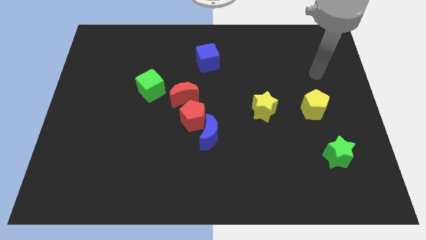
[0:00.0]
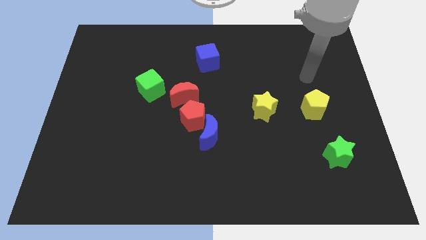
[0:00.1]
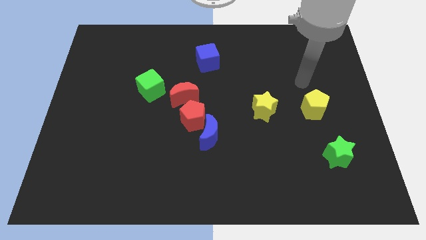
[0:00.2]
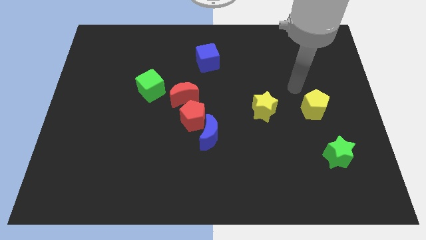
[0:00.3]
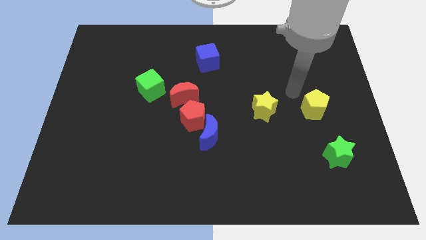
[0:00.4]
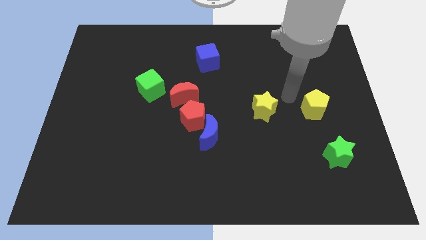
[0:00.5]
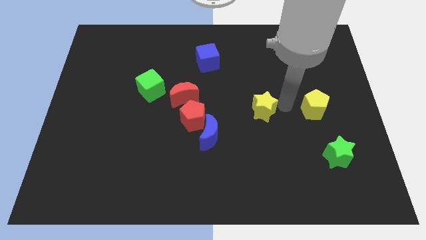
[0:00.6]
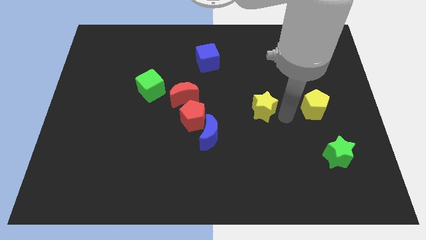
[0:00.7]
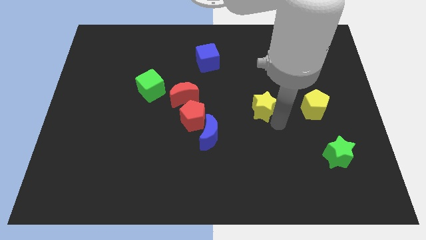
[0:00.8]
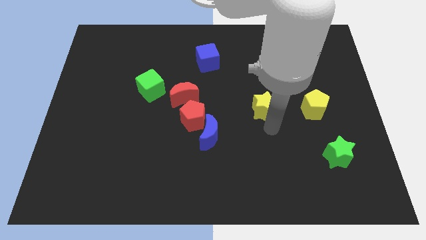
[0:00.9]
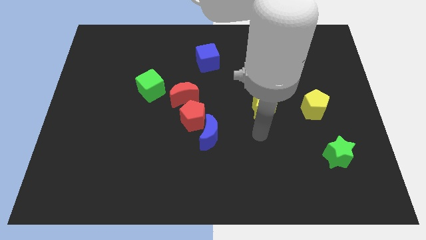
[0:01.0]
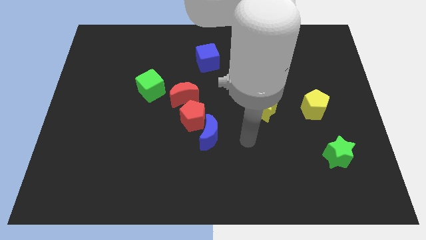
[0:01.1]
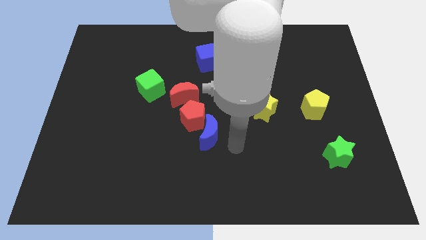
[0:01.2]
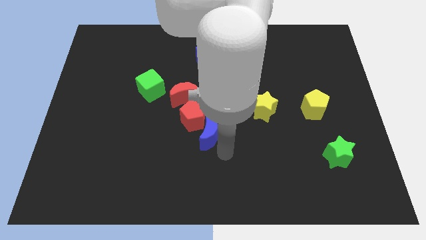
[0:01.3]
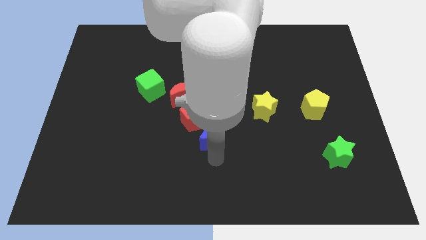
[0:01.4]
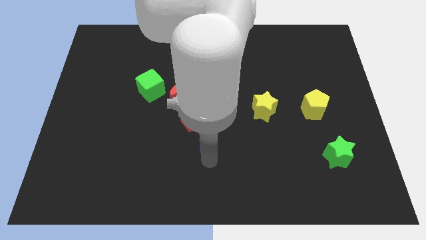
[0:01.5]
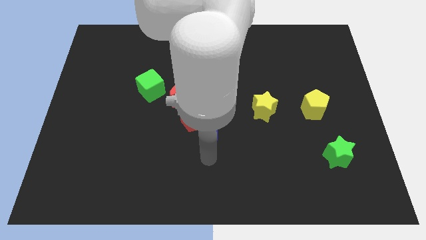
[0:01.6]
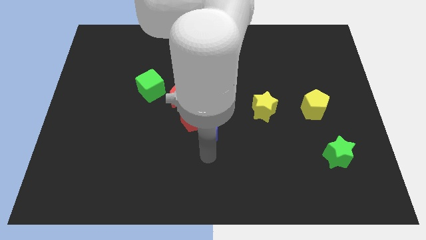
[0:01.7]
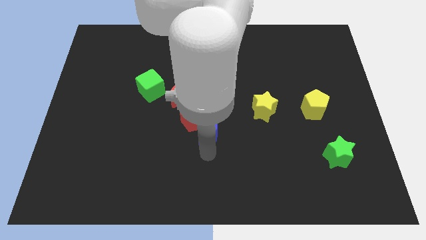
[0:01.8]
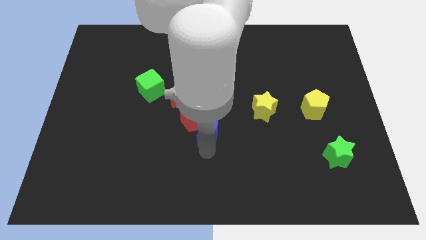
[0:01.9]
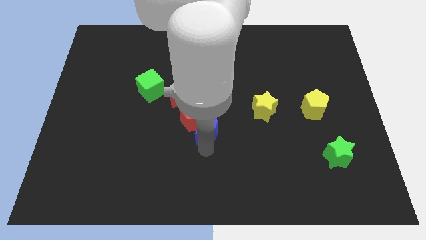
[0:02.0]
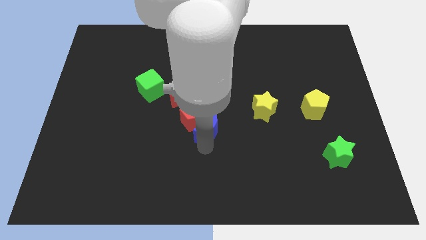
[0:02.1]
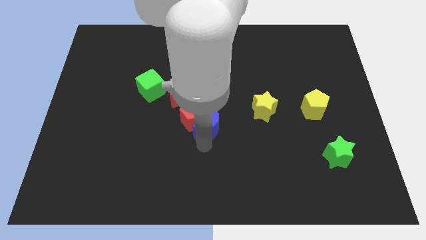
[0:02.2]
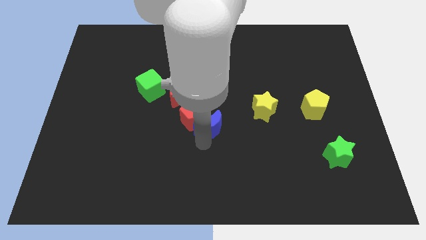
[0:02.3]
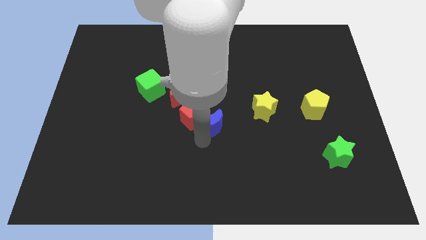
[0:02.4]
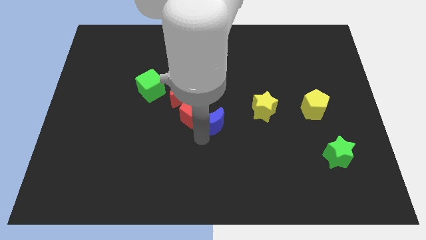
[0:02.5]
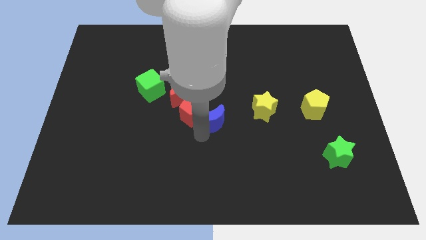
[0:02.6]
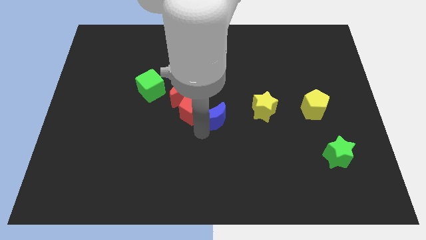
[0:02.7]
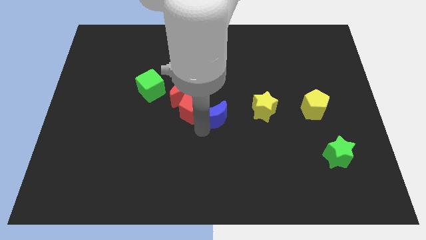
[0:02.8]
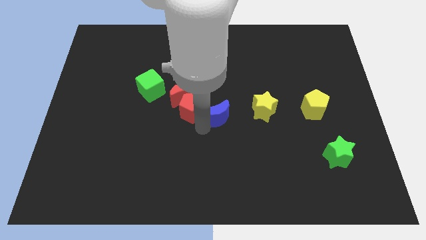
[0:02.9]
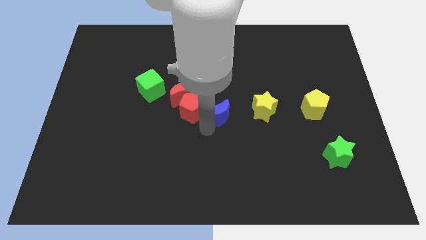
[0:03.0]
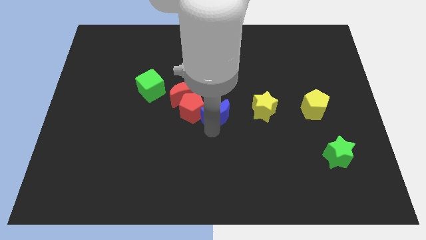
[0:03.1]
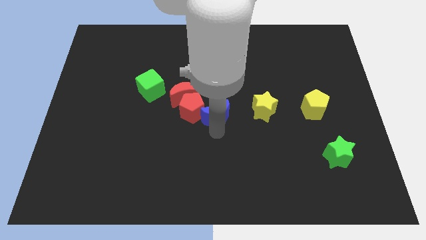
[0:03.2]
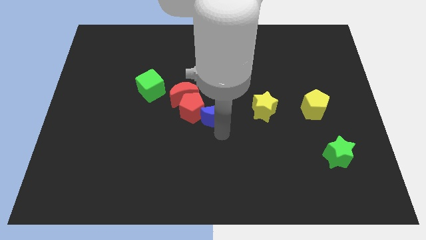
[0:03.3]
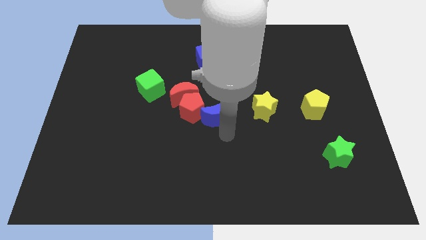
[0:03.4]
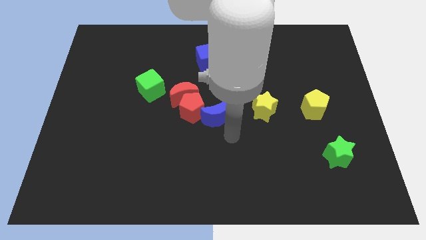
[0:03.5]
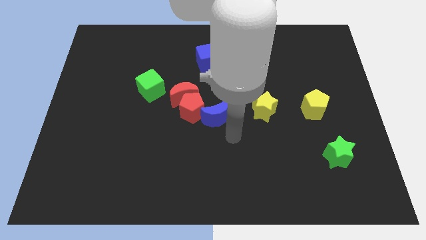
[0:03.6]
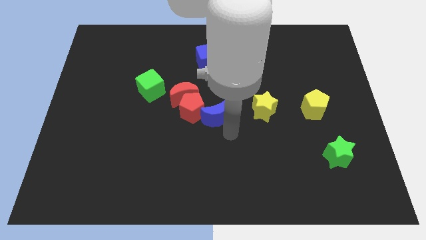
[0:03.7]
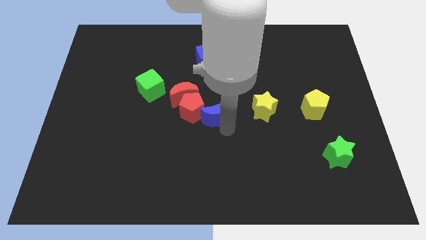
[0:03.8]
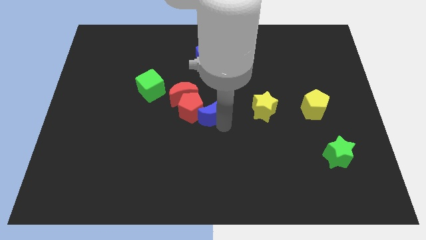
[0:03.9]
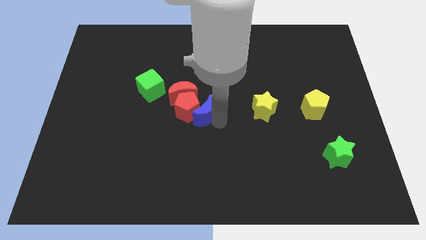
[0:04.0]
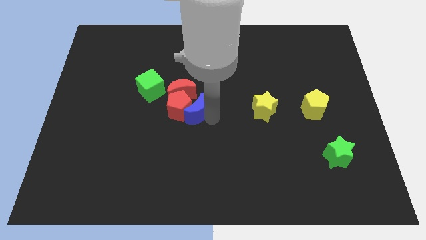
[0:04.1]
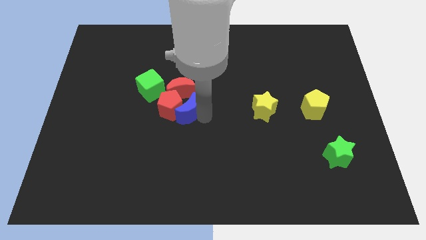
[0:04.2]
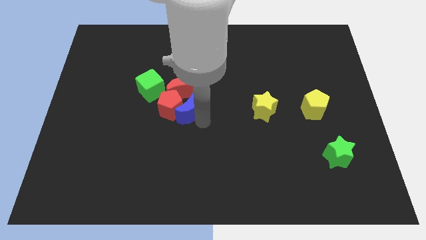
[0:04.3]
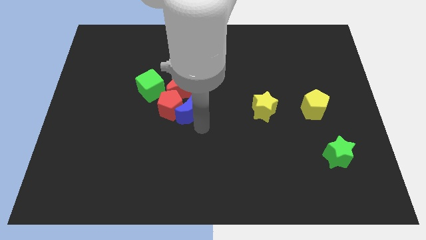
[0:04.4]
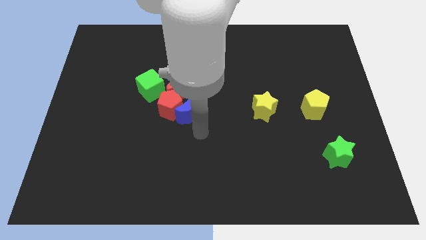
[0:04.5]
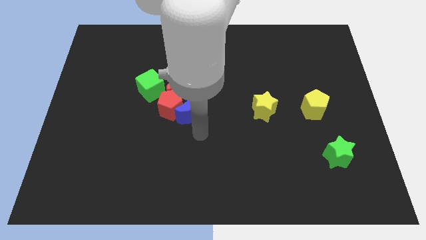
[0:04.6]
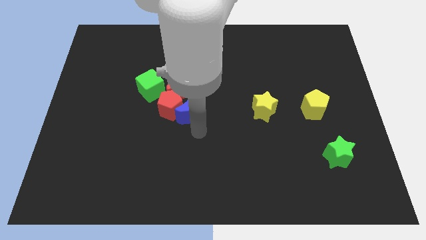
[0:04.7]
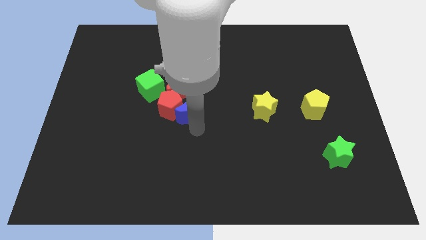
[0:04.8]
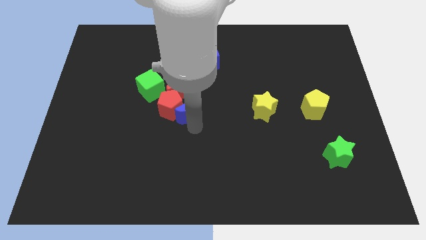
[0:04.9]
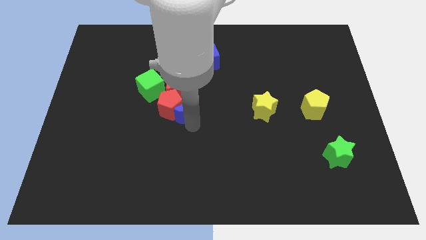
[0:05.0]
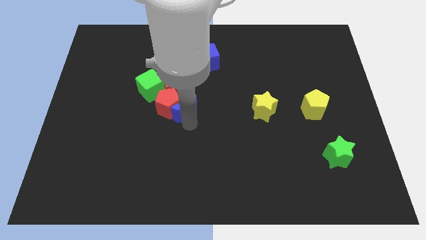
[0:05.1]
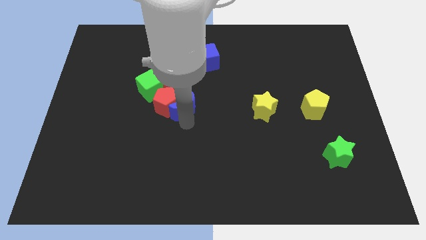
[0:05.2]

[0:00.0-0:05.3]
slide the blue moon to the red moon

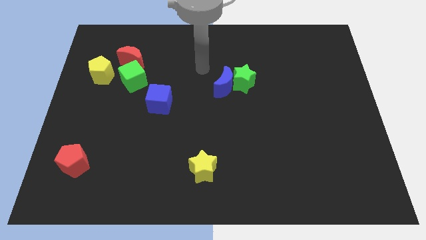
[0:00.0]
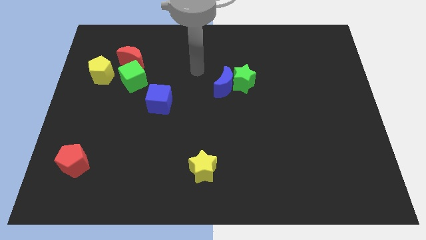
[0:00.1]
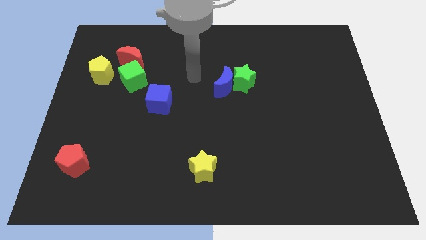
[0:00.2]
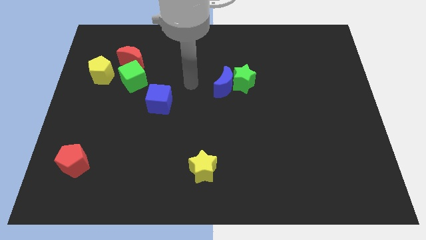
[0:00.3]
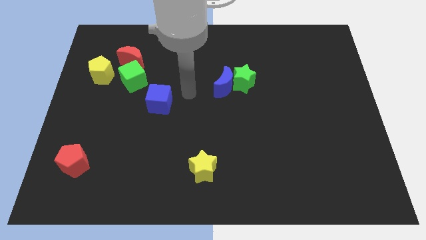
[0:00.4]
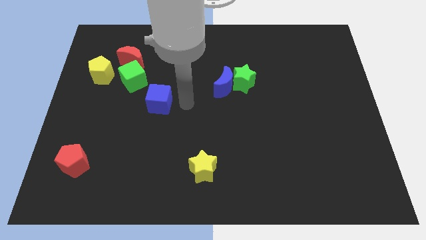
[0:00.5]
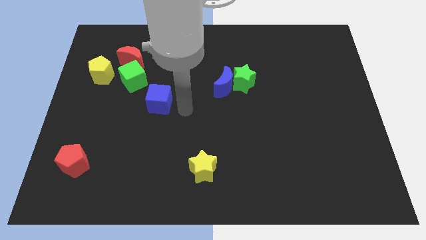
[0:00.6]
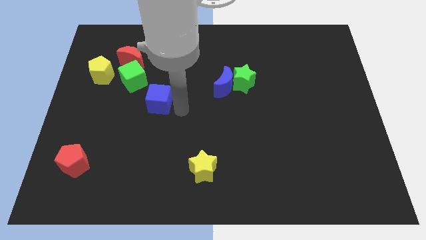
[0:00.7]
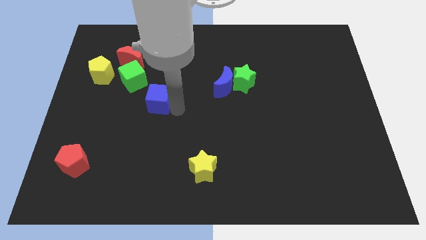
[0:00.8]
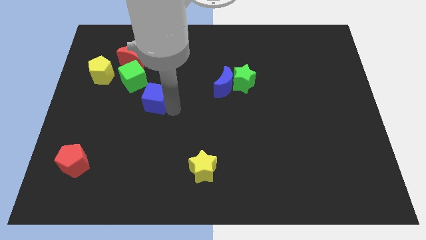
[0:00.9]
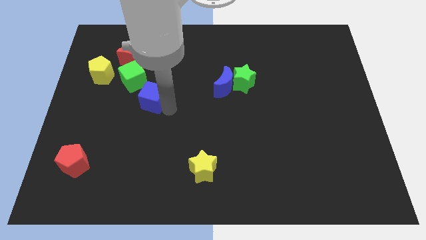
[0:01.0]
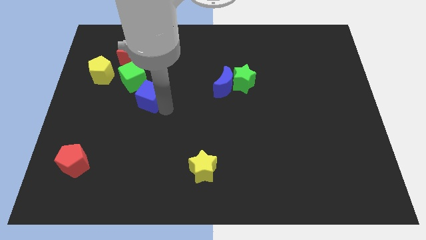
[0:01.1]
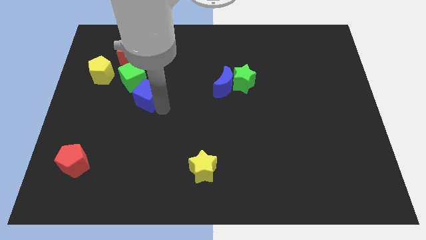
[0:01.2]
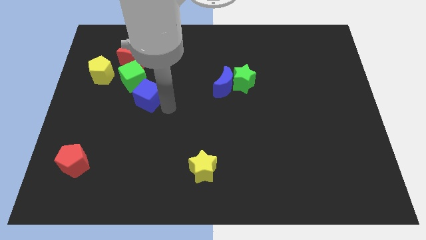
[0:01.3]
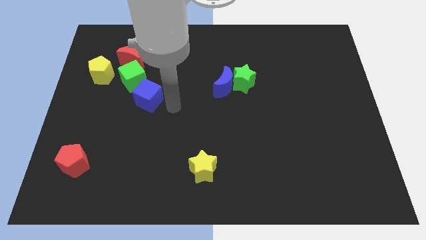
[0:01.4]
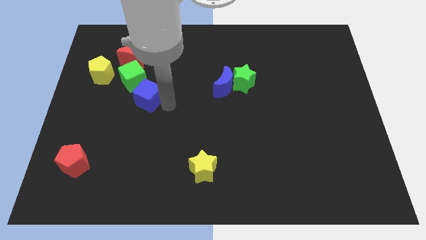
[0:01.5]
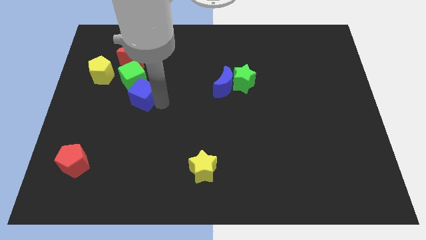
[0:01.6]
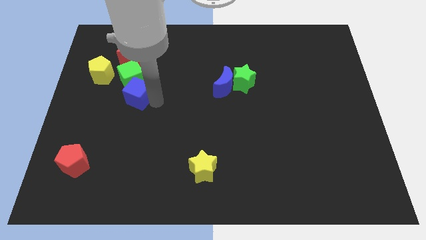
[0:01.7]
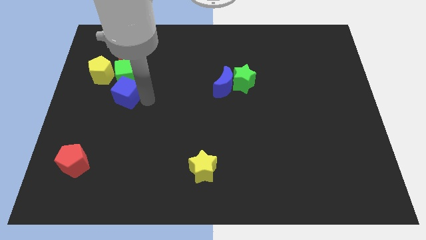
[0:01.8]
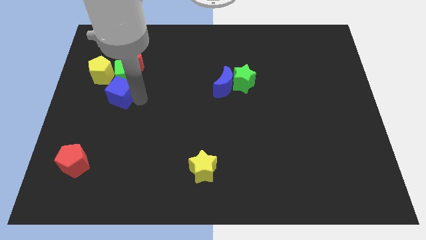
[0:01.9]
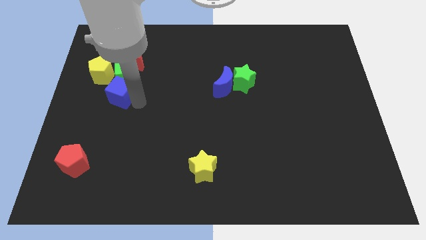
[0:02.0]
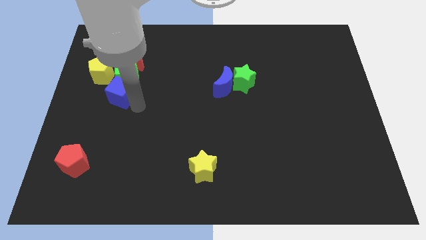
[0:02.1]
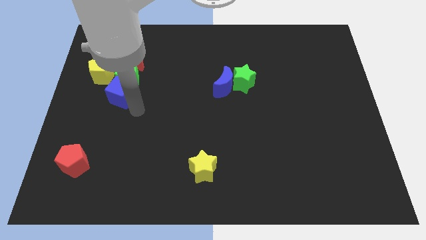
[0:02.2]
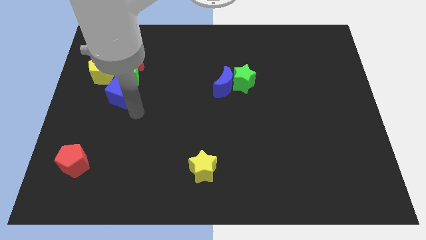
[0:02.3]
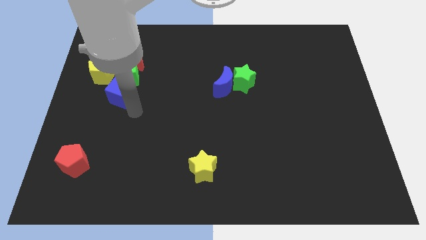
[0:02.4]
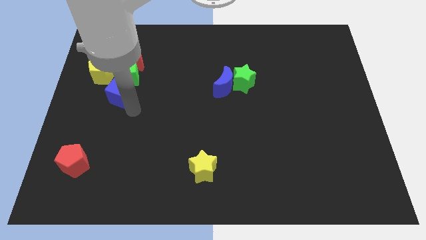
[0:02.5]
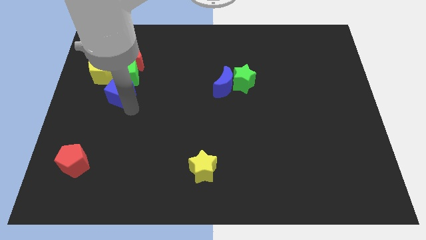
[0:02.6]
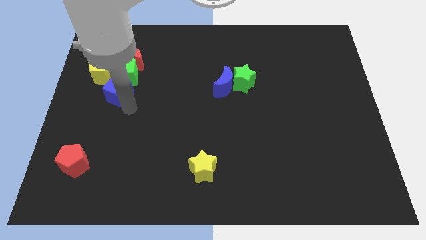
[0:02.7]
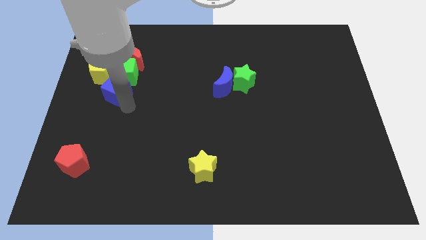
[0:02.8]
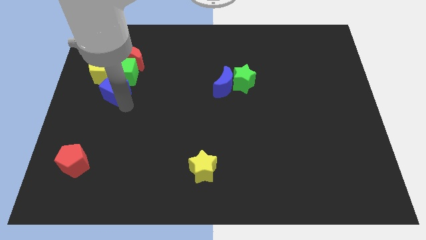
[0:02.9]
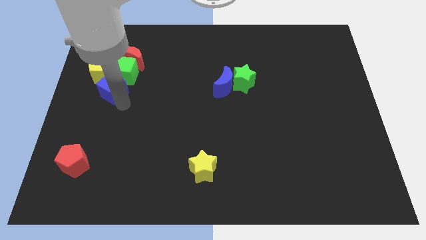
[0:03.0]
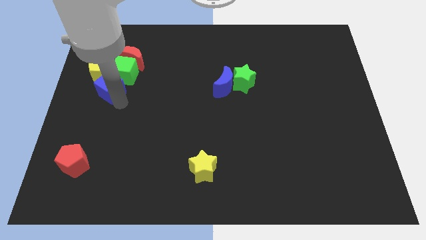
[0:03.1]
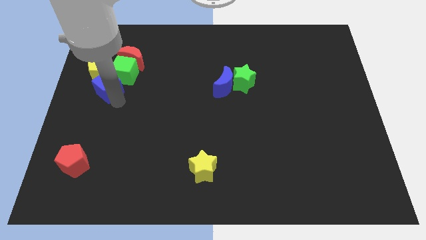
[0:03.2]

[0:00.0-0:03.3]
move the blue cube towards the yellow pentagon
